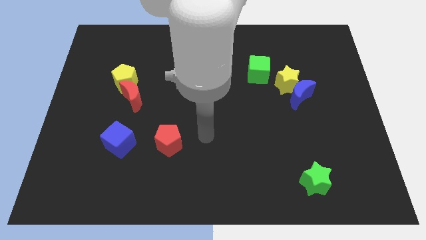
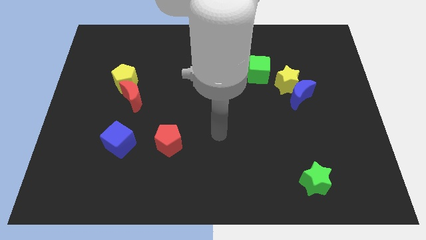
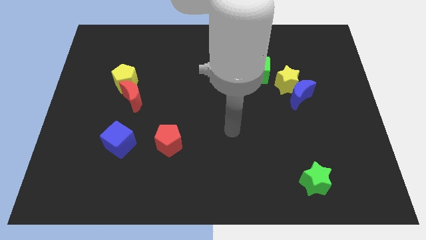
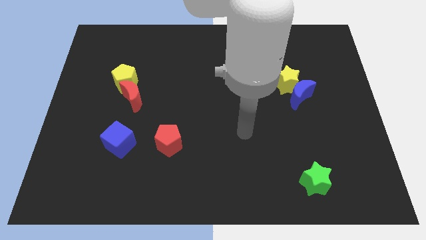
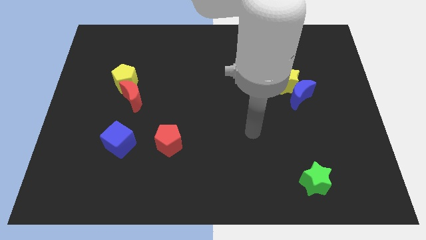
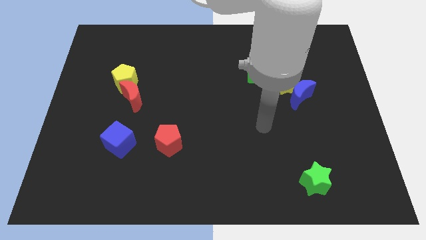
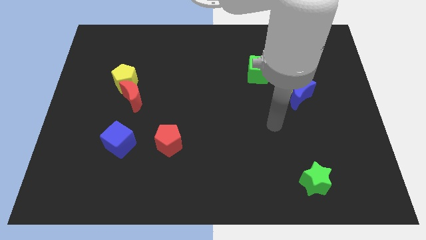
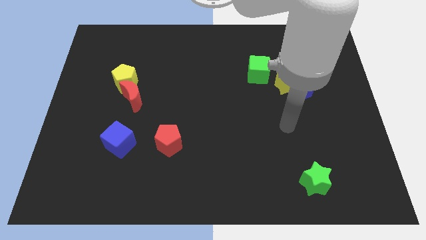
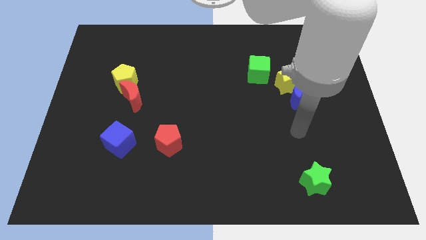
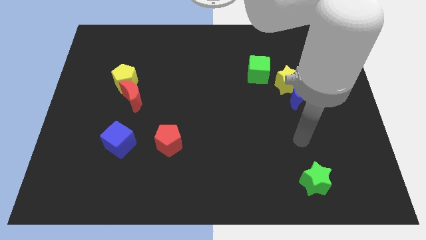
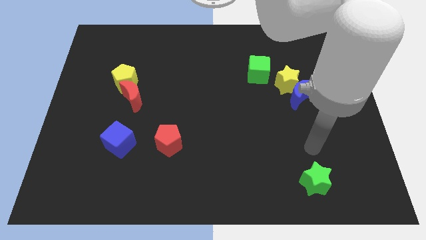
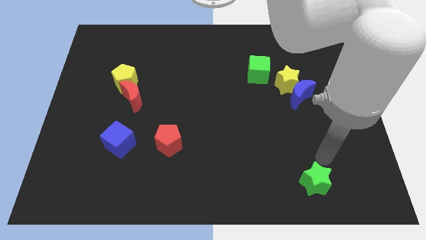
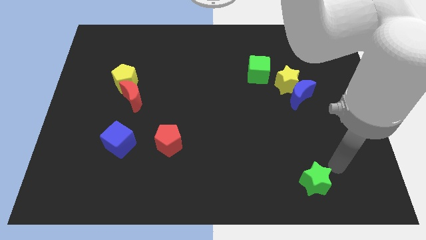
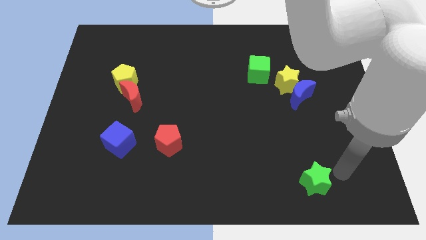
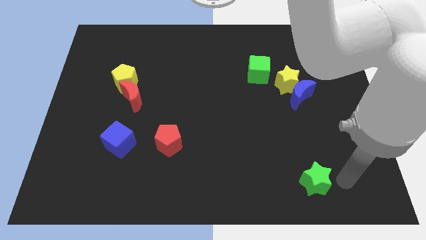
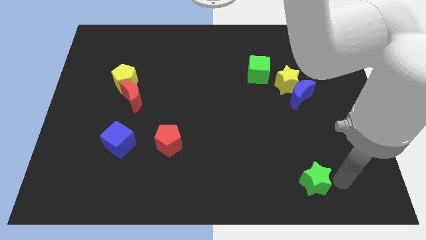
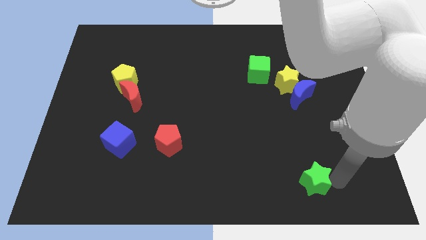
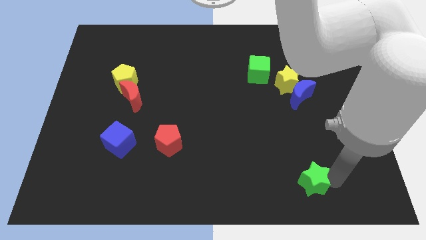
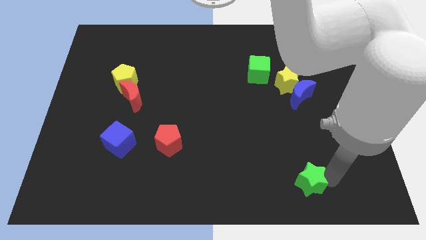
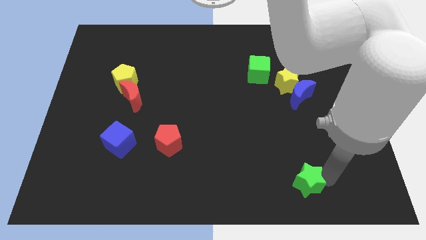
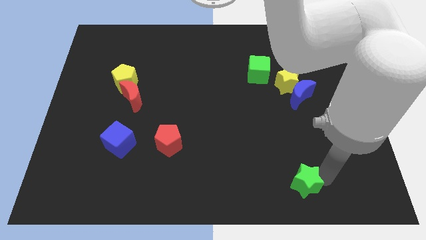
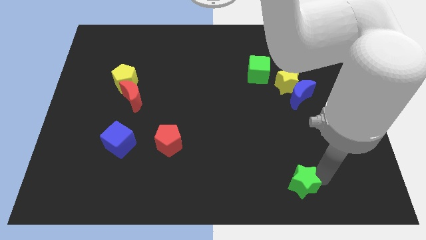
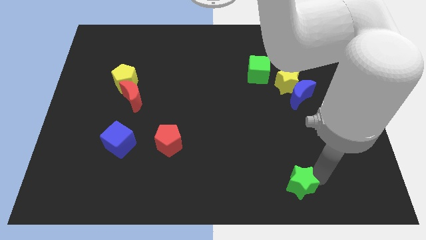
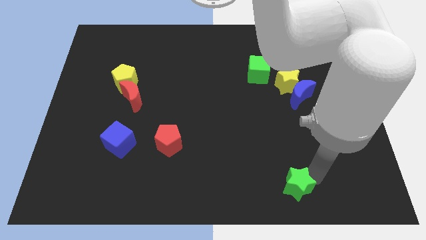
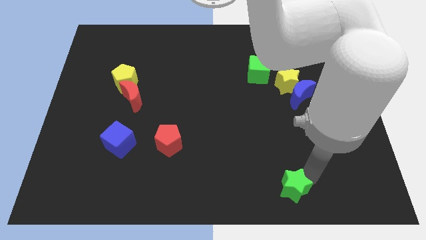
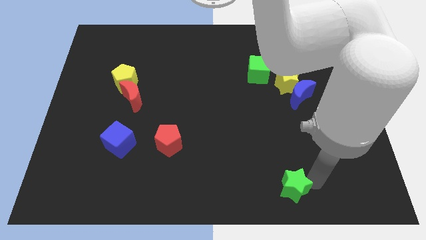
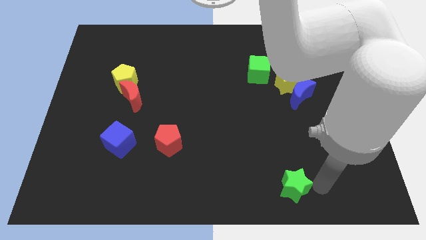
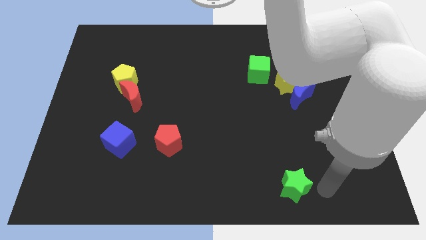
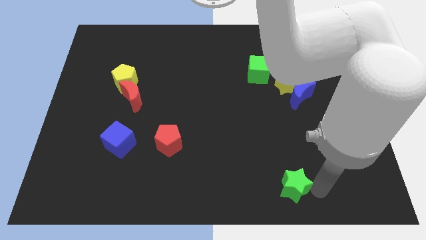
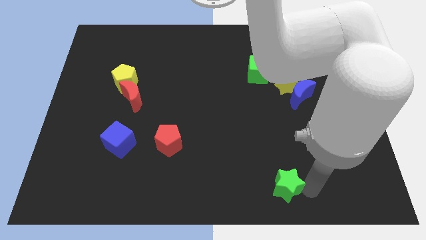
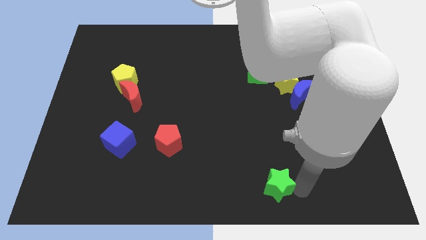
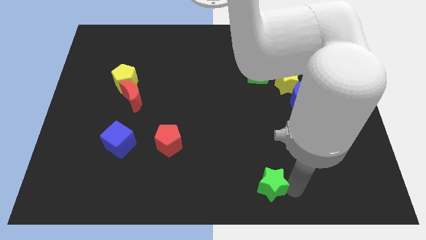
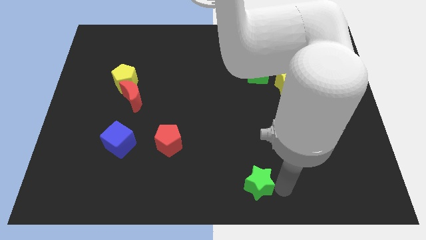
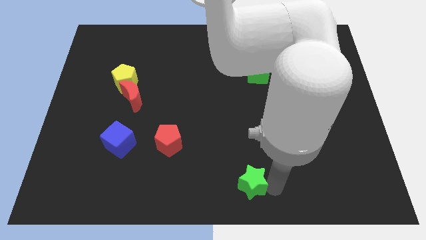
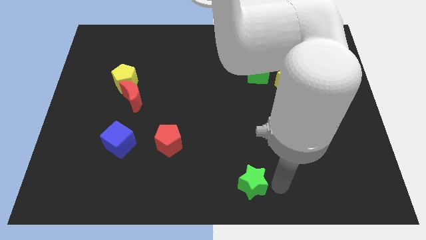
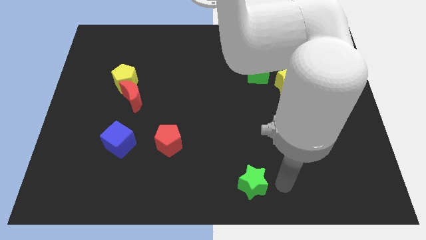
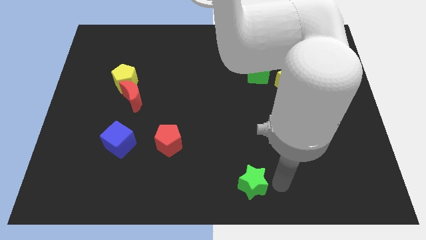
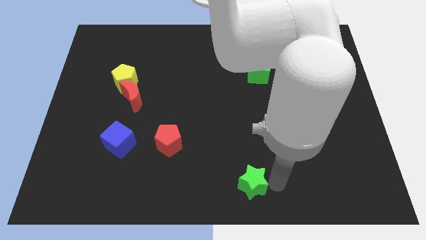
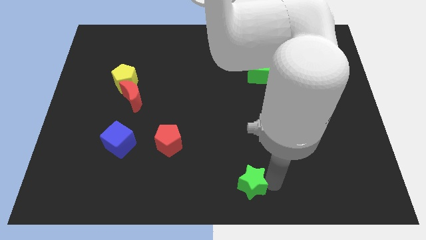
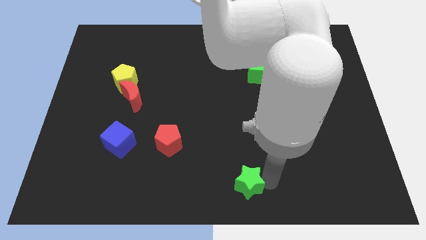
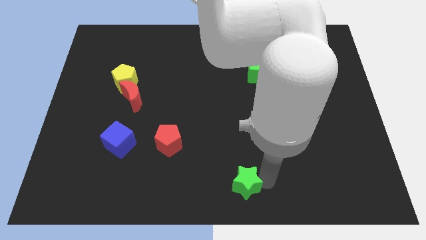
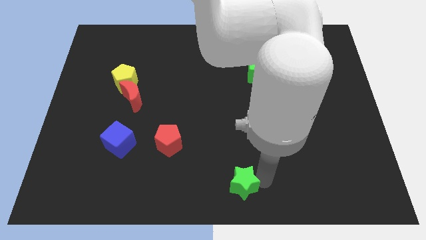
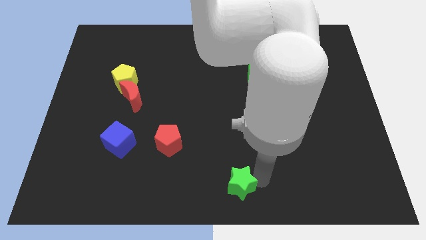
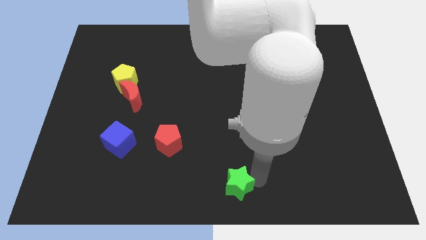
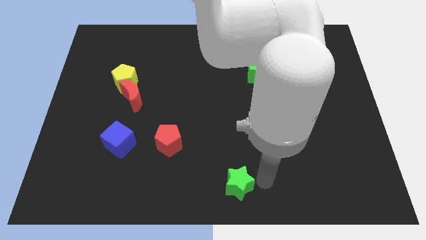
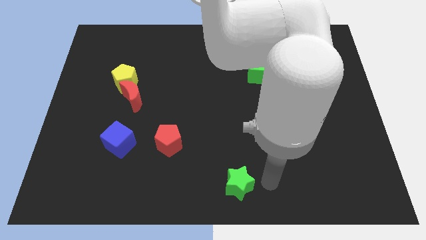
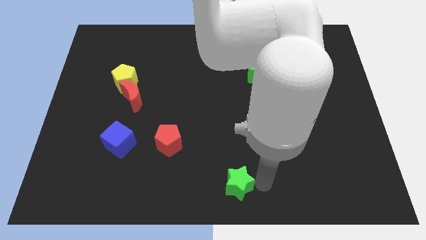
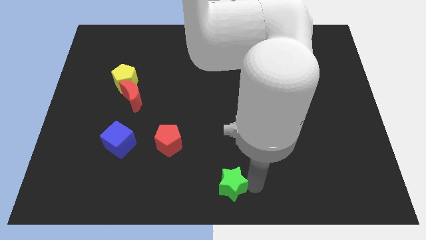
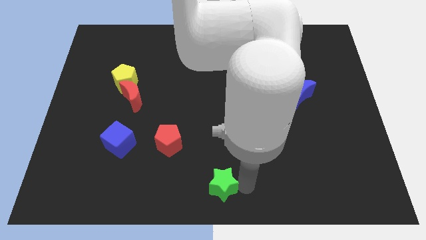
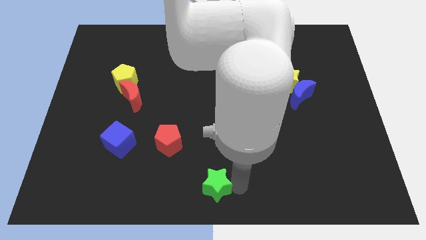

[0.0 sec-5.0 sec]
slide the green star to the left

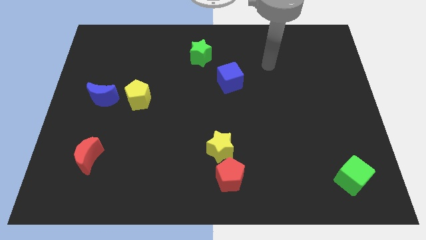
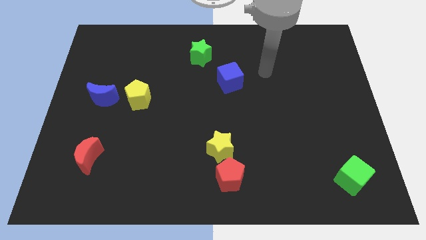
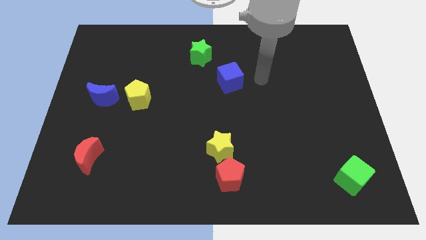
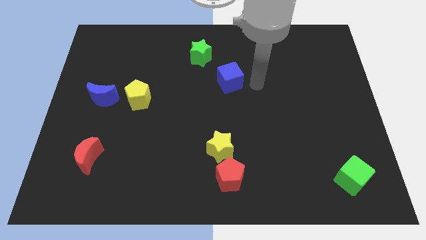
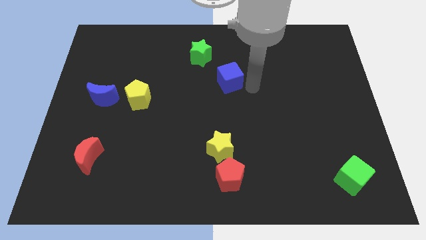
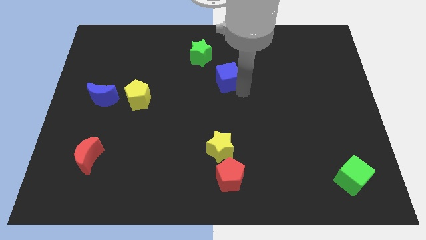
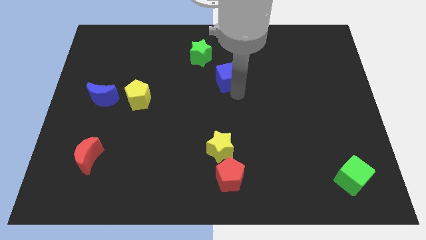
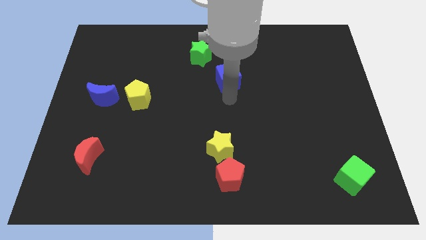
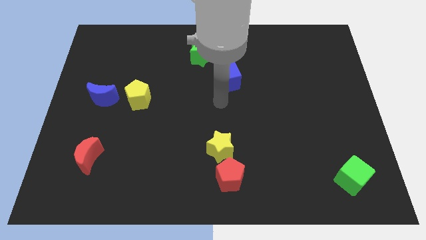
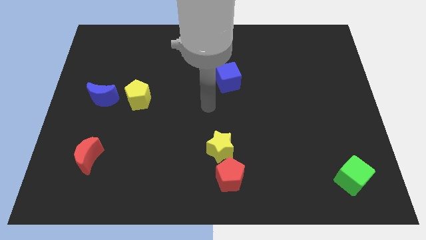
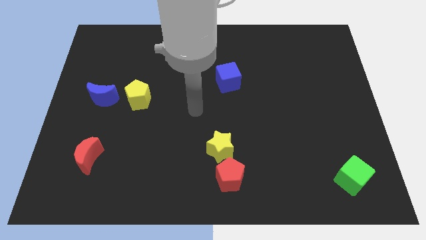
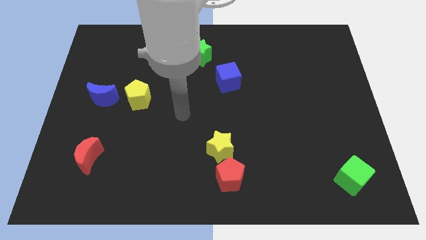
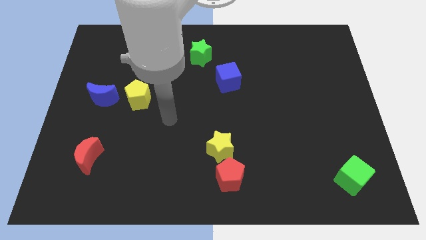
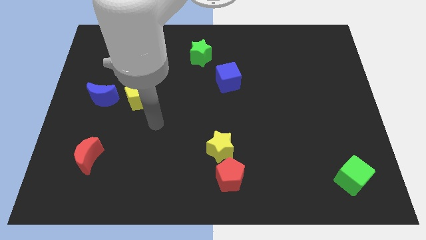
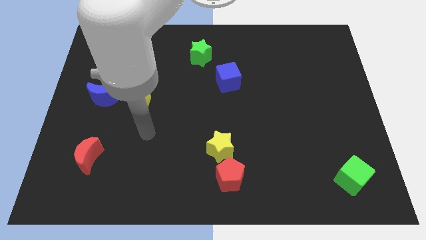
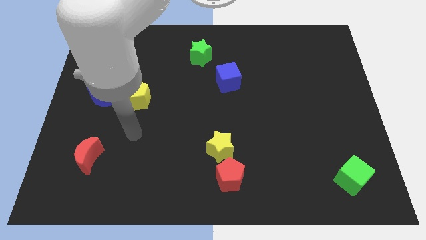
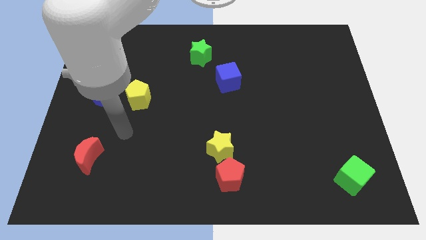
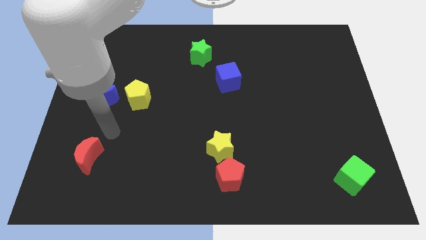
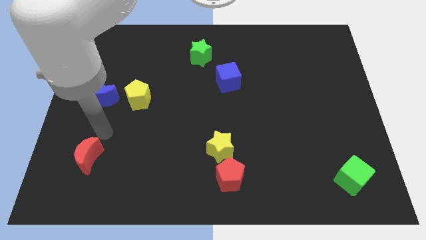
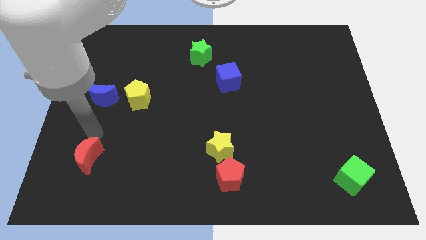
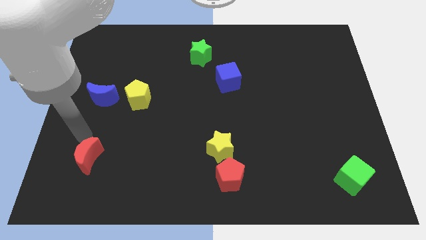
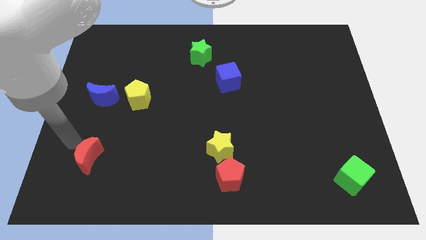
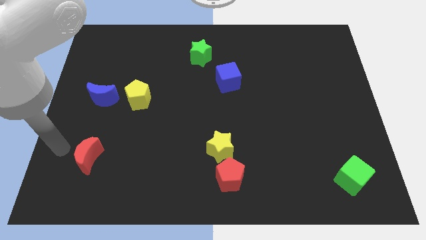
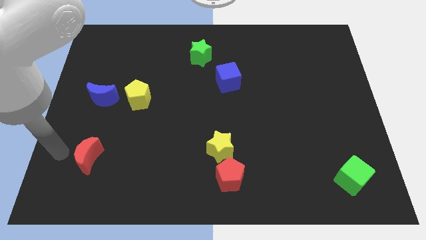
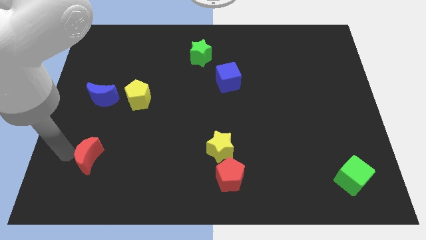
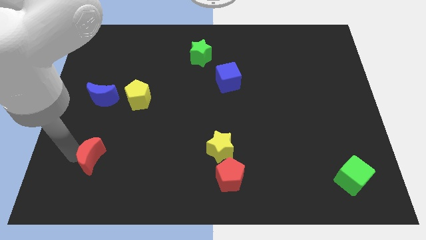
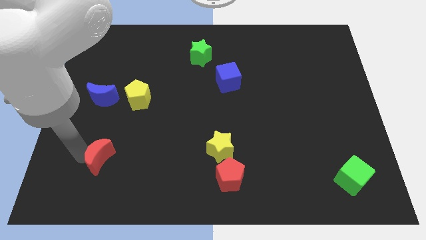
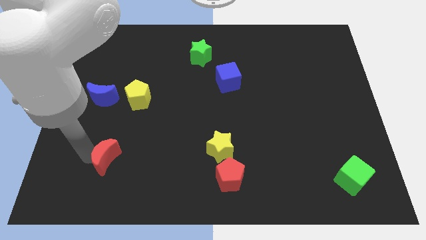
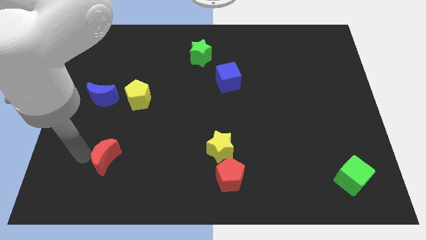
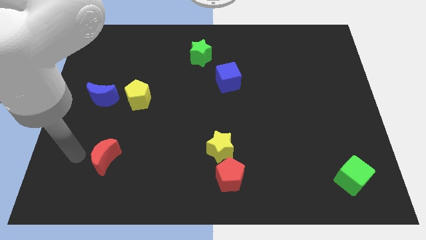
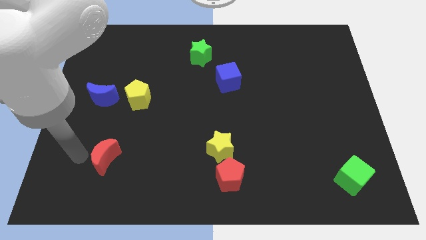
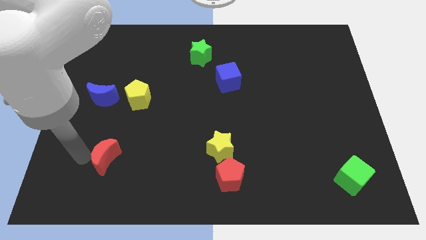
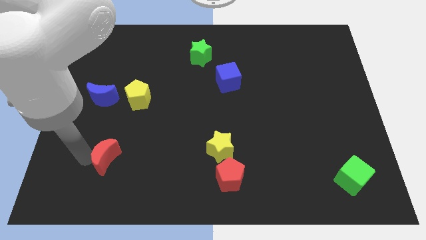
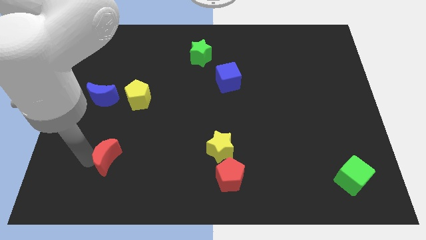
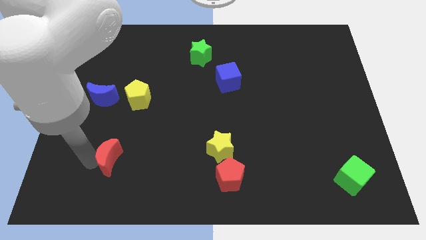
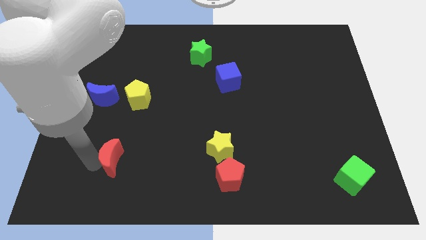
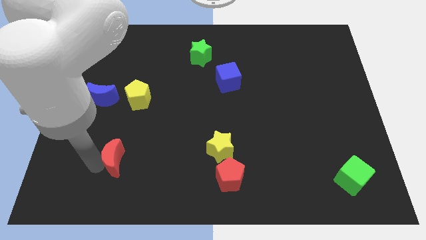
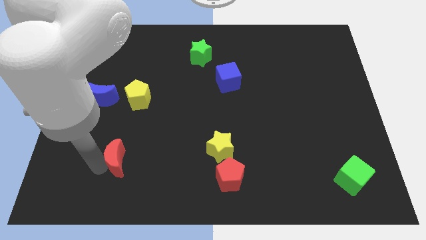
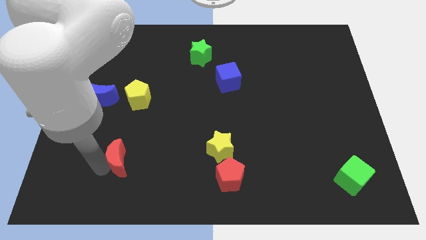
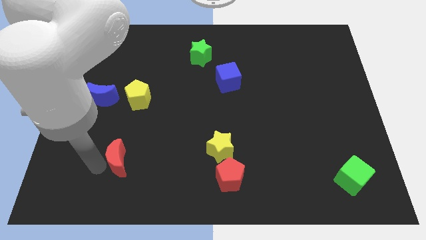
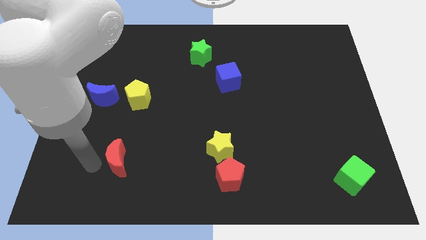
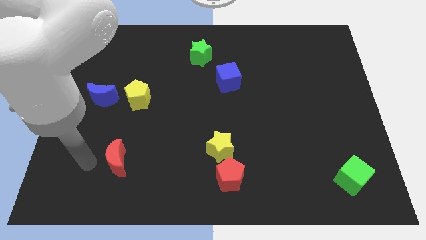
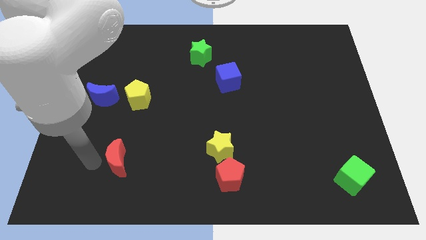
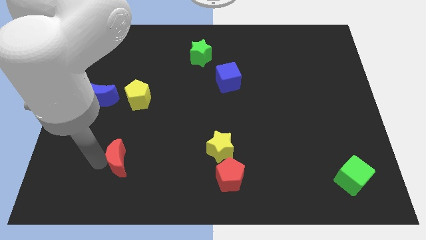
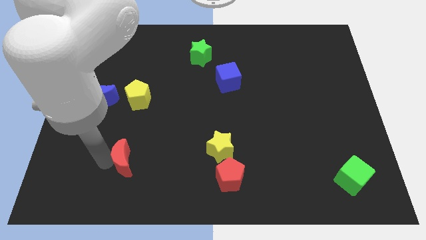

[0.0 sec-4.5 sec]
move the red moon somewhat to the right
